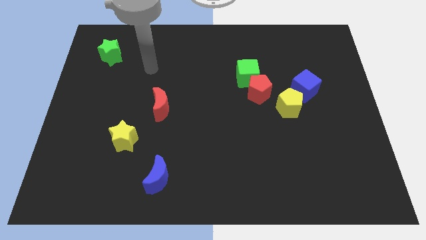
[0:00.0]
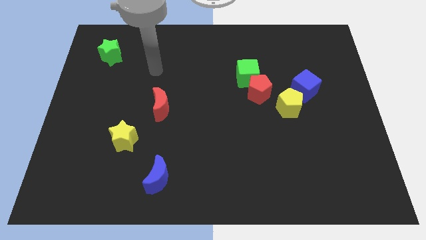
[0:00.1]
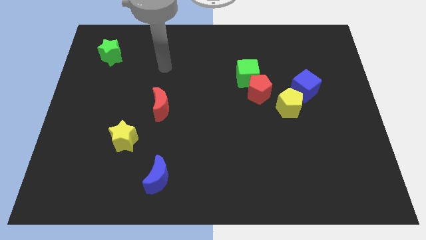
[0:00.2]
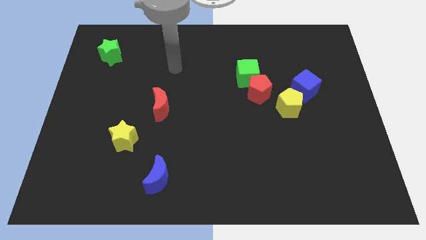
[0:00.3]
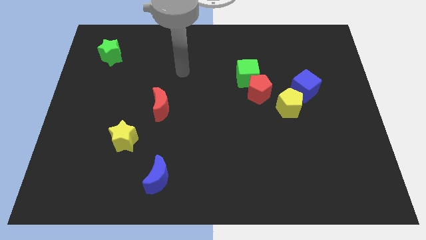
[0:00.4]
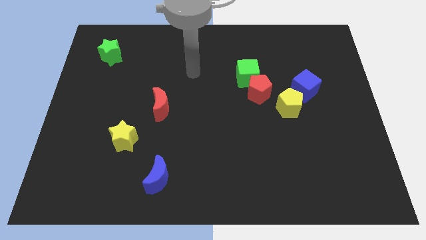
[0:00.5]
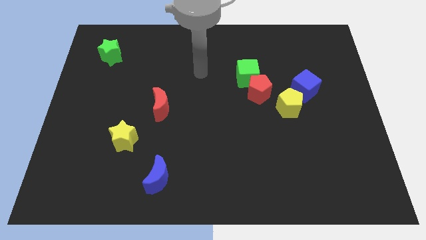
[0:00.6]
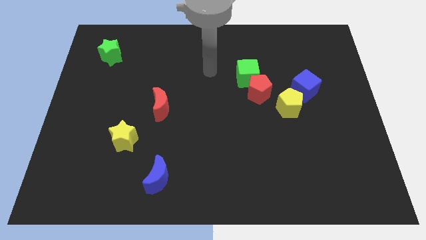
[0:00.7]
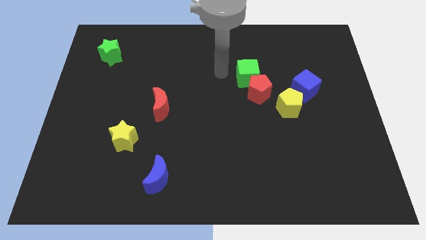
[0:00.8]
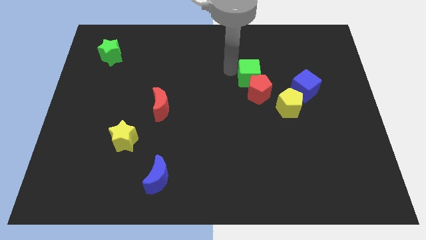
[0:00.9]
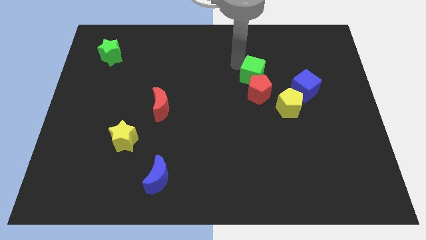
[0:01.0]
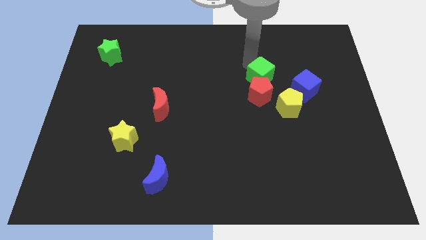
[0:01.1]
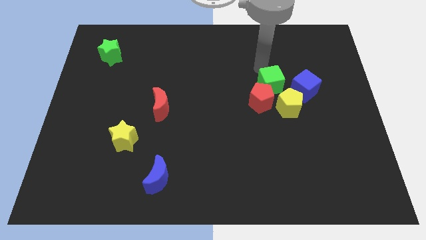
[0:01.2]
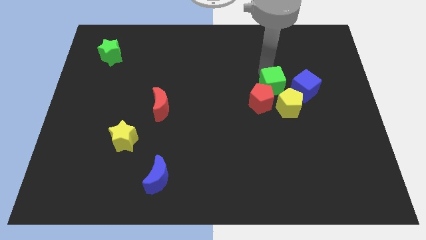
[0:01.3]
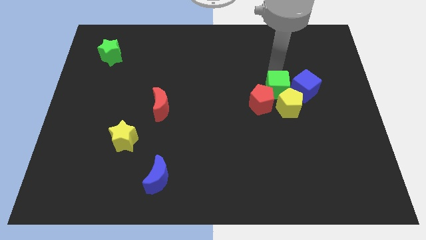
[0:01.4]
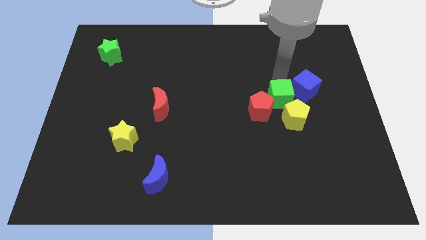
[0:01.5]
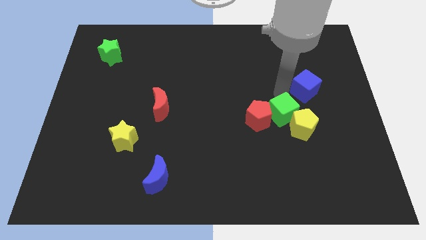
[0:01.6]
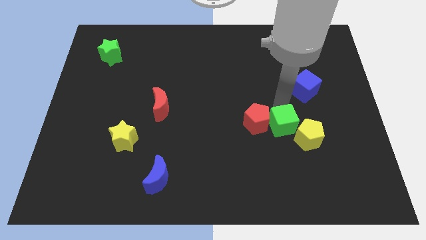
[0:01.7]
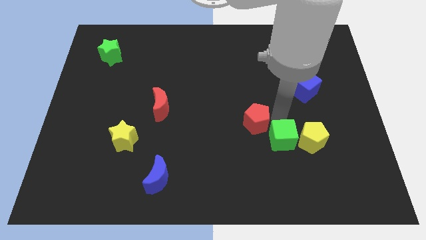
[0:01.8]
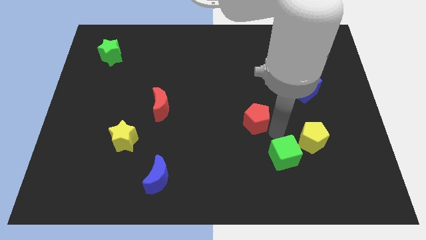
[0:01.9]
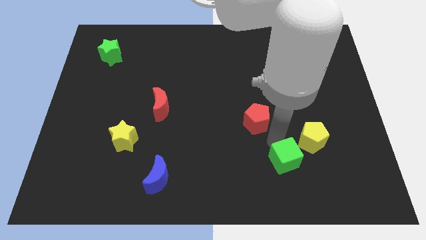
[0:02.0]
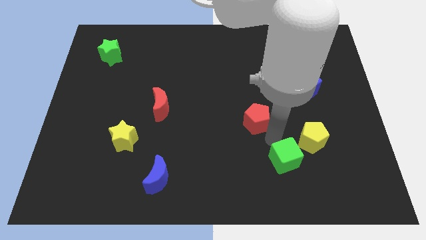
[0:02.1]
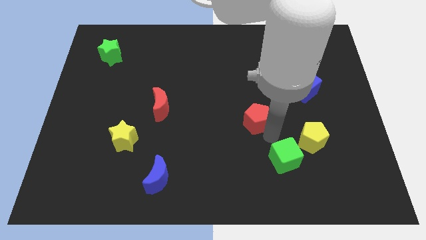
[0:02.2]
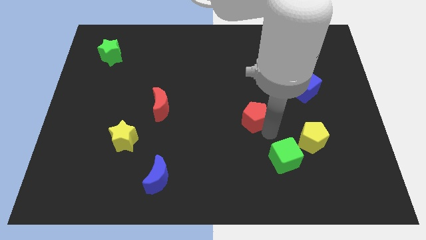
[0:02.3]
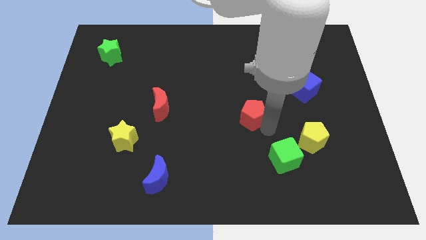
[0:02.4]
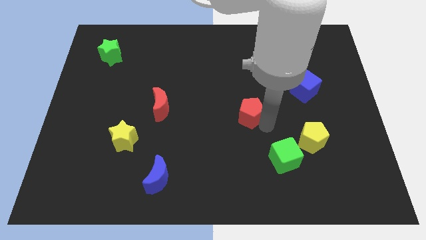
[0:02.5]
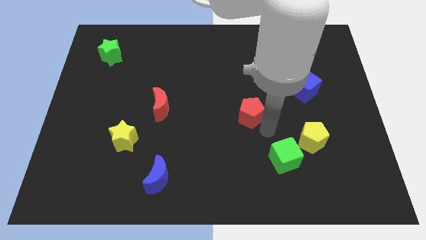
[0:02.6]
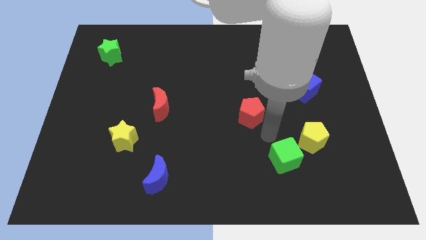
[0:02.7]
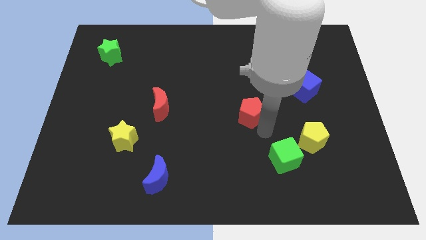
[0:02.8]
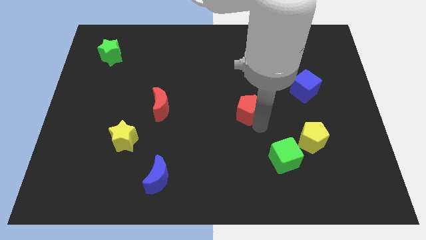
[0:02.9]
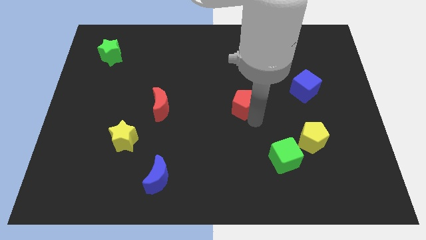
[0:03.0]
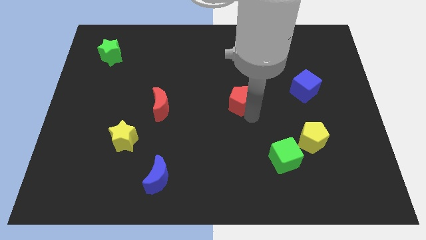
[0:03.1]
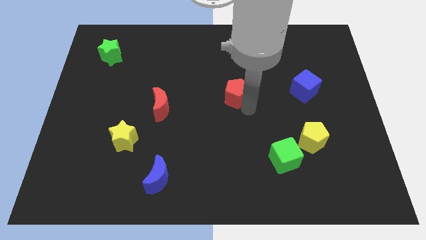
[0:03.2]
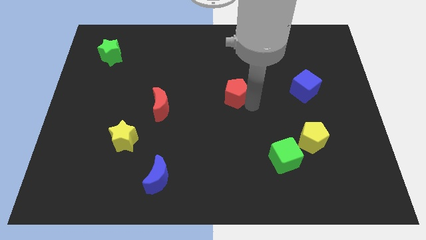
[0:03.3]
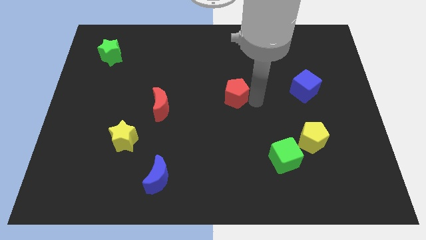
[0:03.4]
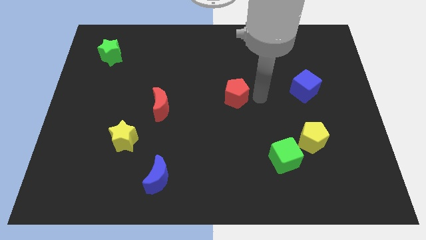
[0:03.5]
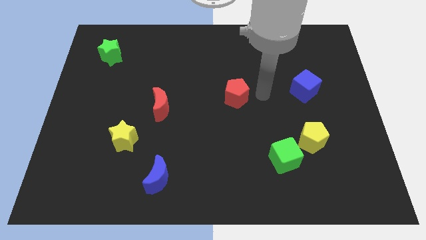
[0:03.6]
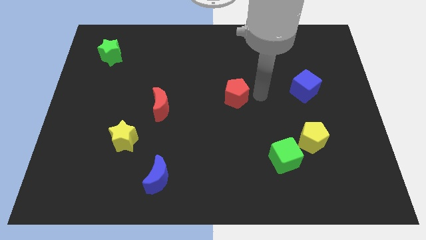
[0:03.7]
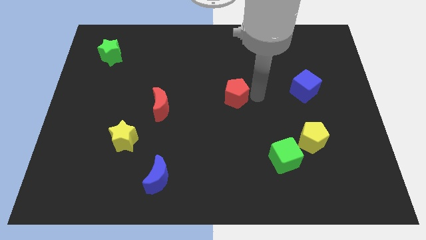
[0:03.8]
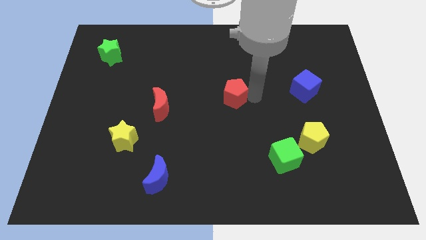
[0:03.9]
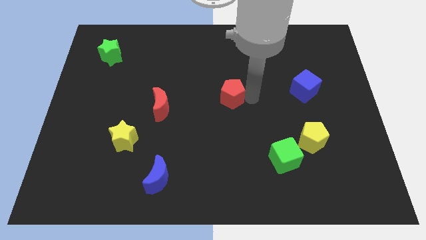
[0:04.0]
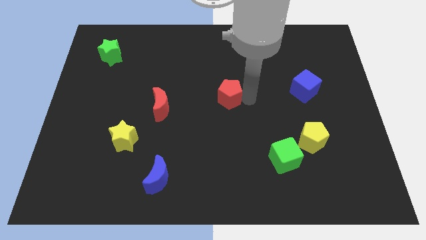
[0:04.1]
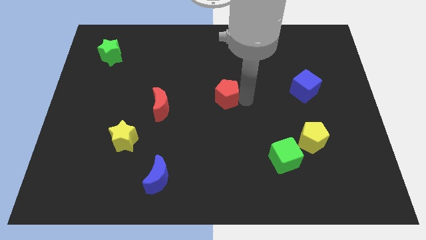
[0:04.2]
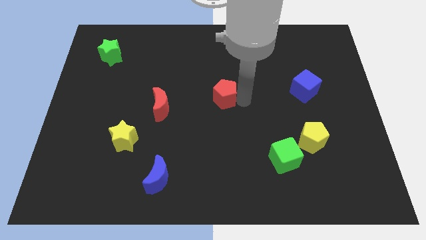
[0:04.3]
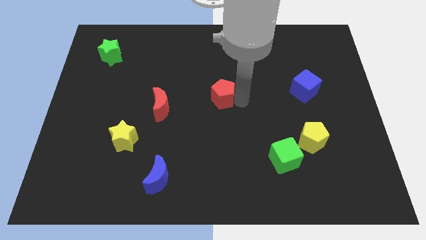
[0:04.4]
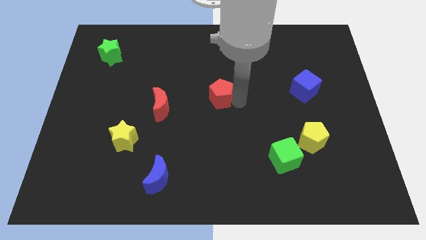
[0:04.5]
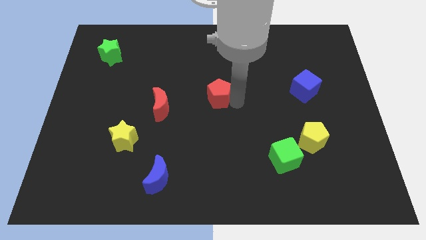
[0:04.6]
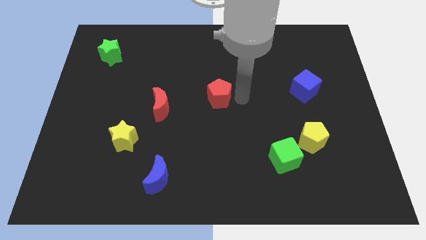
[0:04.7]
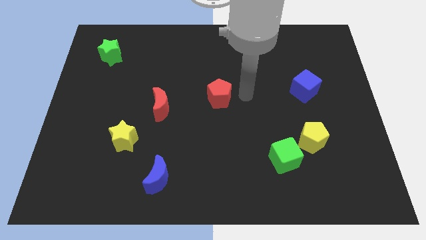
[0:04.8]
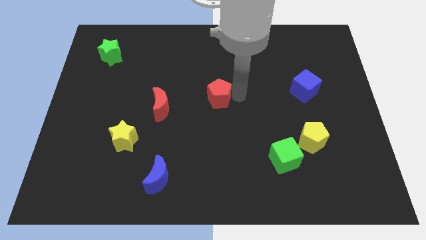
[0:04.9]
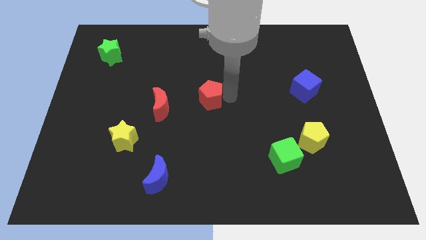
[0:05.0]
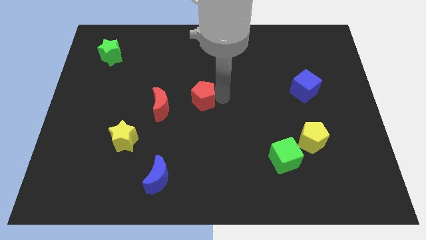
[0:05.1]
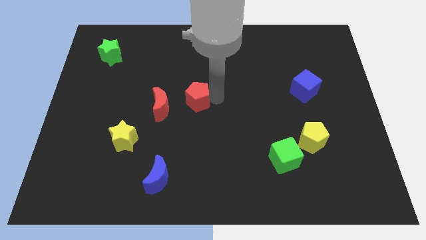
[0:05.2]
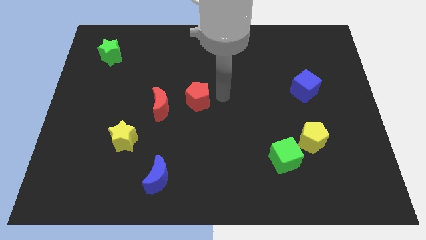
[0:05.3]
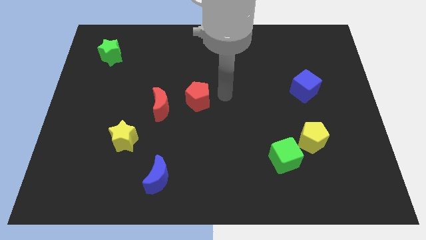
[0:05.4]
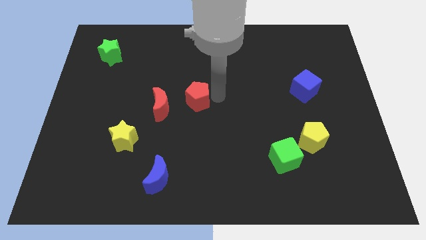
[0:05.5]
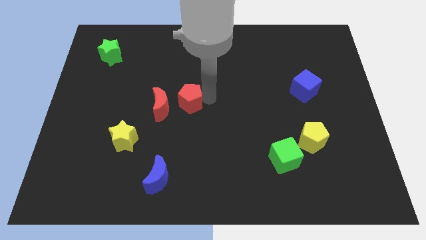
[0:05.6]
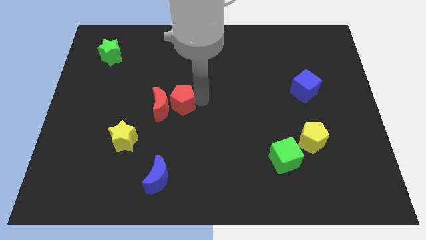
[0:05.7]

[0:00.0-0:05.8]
push the red pentagon towards the red moon

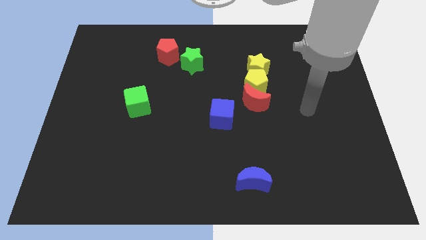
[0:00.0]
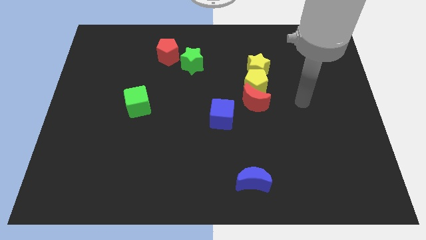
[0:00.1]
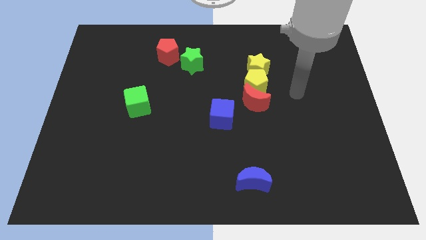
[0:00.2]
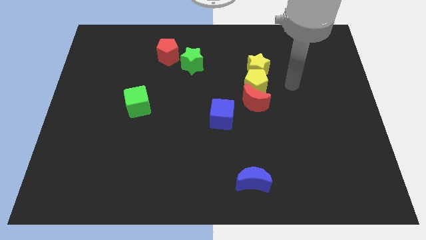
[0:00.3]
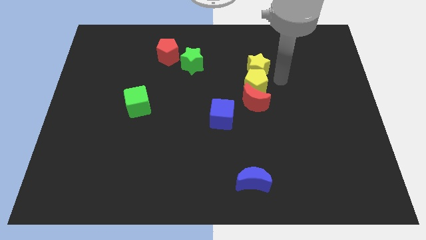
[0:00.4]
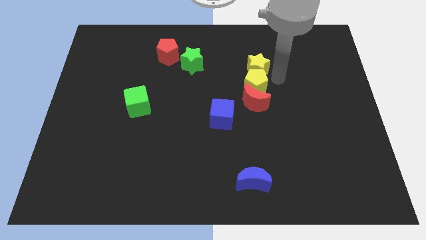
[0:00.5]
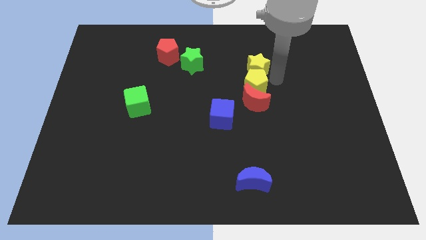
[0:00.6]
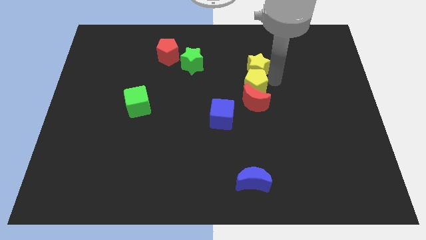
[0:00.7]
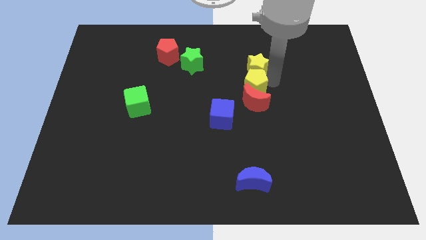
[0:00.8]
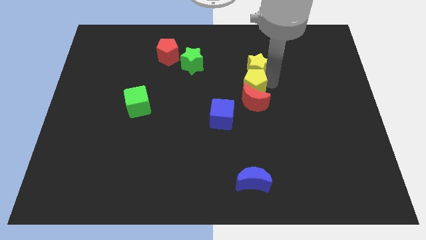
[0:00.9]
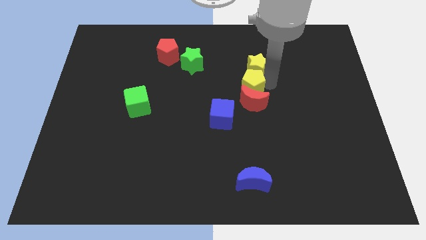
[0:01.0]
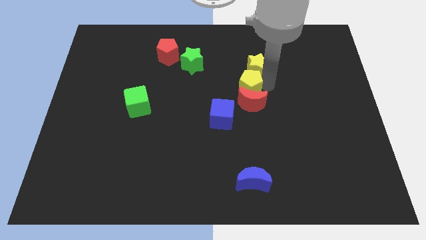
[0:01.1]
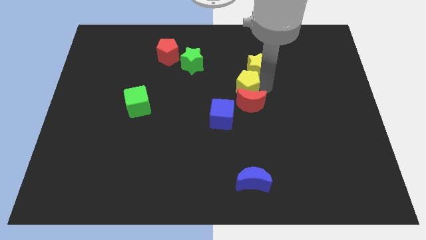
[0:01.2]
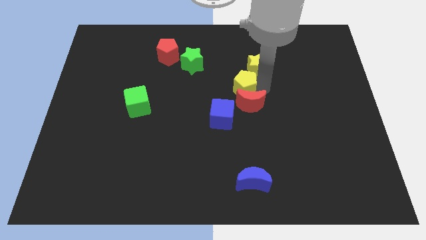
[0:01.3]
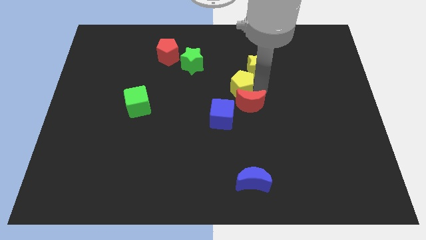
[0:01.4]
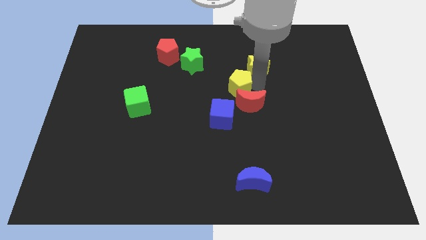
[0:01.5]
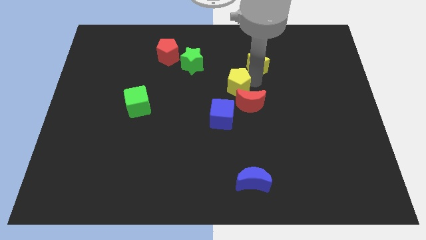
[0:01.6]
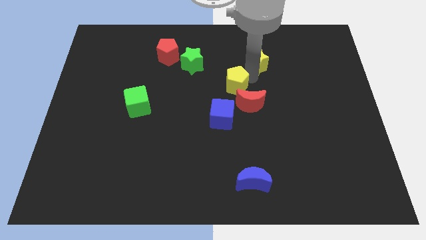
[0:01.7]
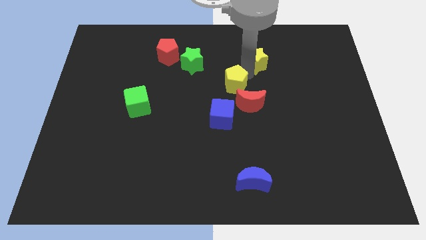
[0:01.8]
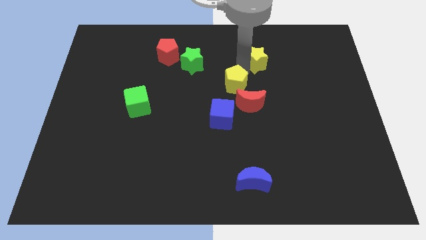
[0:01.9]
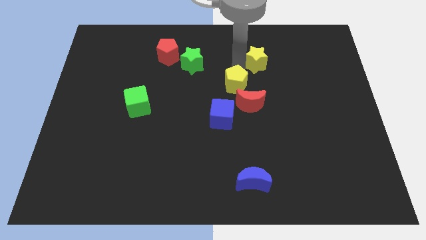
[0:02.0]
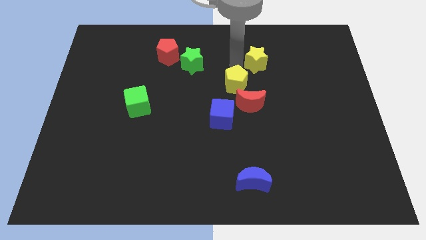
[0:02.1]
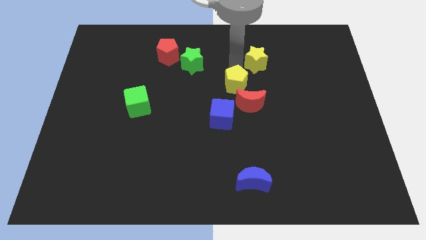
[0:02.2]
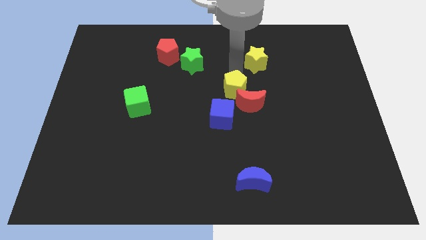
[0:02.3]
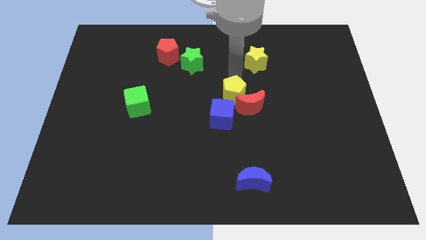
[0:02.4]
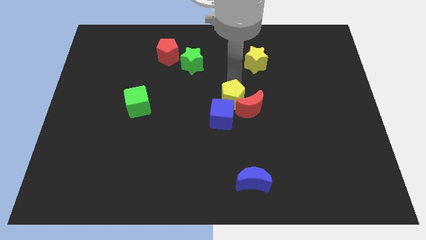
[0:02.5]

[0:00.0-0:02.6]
push the yellow pentagon close to the blue cube
